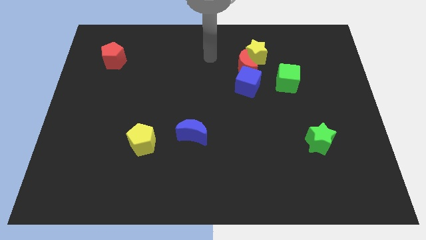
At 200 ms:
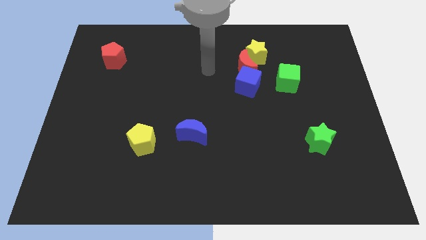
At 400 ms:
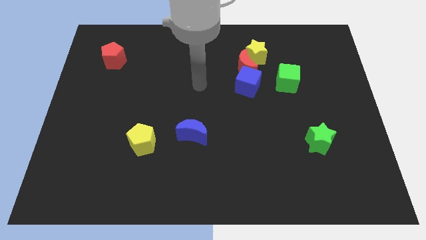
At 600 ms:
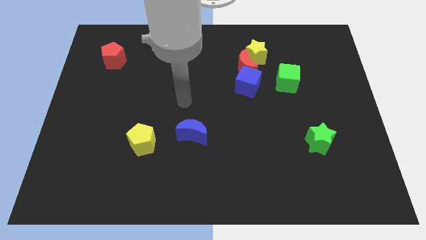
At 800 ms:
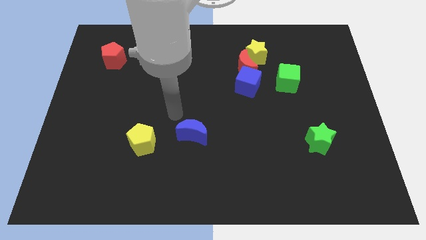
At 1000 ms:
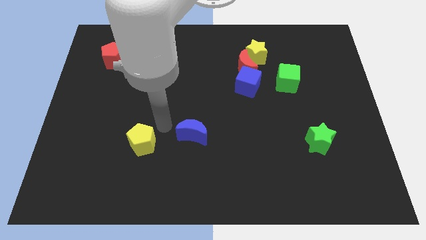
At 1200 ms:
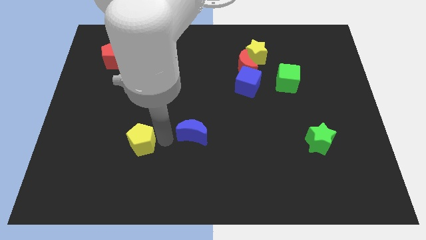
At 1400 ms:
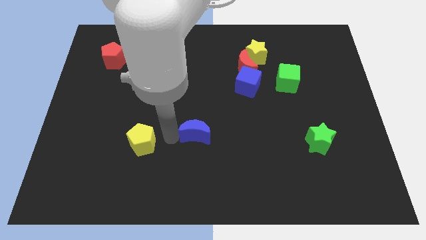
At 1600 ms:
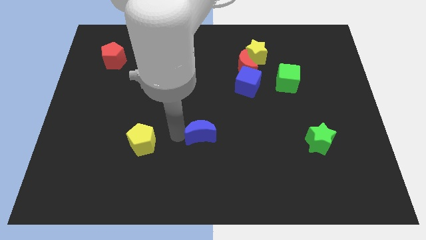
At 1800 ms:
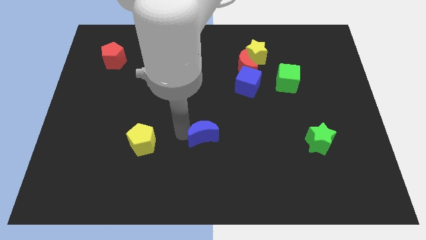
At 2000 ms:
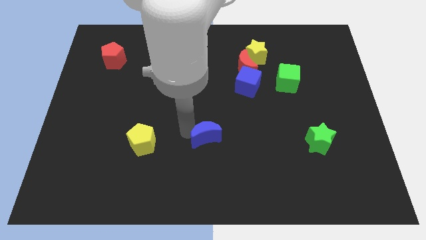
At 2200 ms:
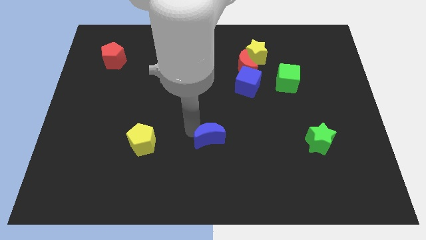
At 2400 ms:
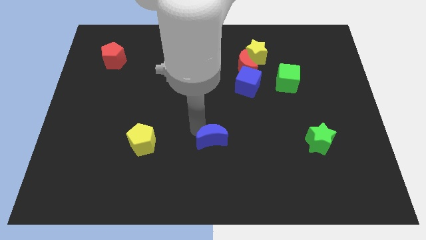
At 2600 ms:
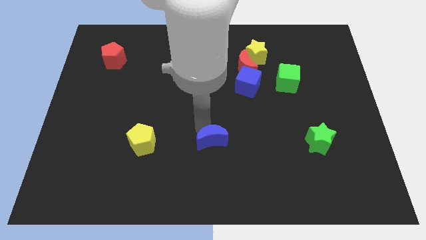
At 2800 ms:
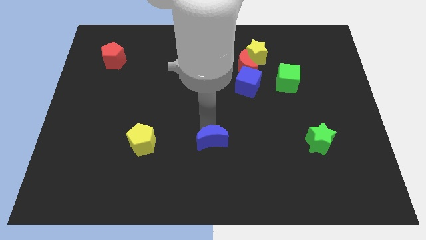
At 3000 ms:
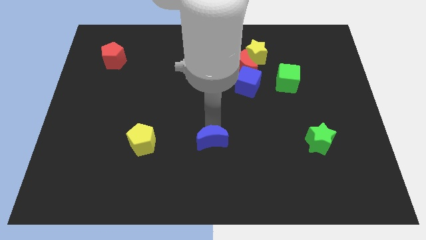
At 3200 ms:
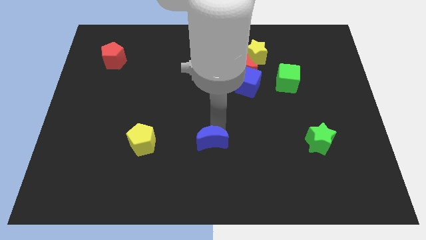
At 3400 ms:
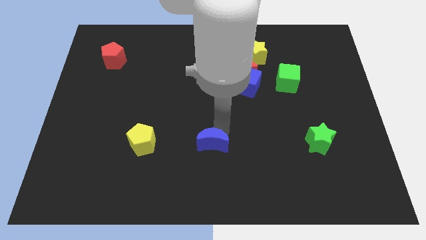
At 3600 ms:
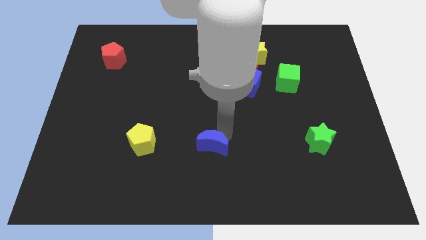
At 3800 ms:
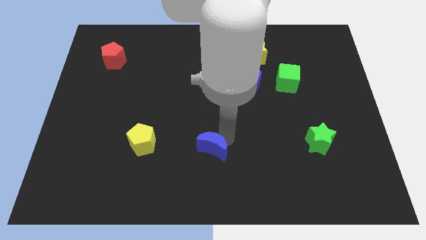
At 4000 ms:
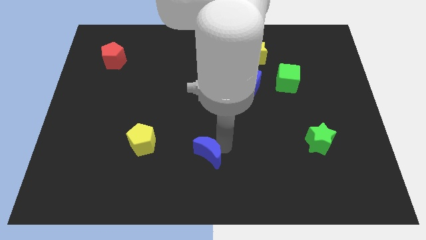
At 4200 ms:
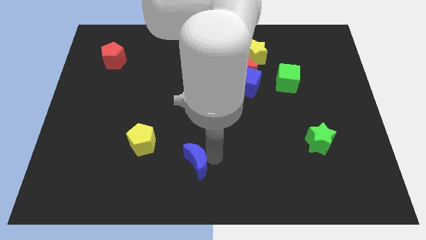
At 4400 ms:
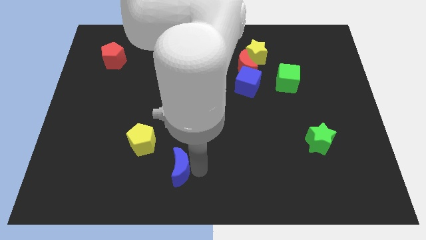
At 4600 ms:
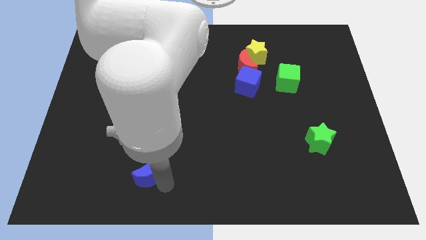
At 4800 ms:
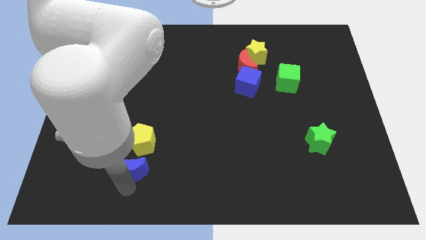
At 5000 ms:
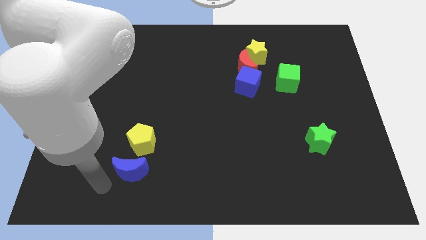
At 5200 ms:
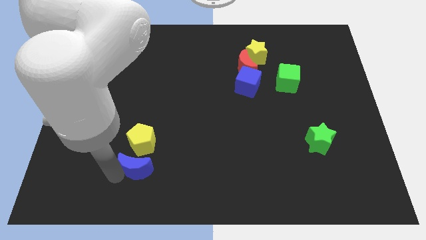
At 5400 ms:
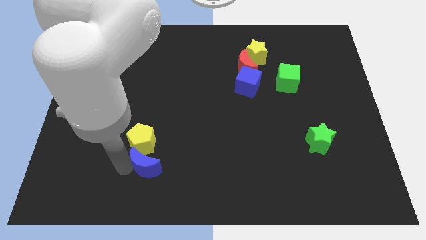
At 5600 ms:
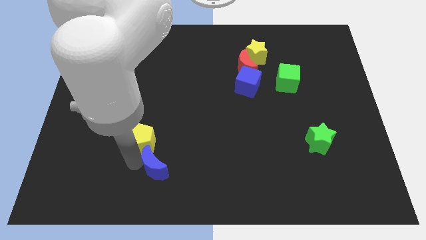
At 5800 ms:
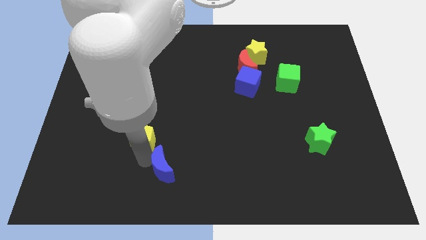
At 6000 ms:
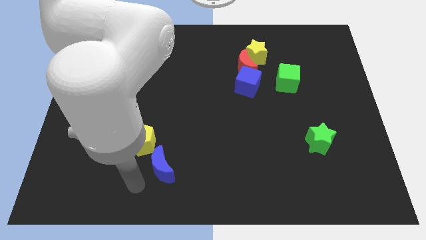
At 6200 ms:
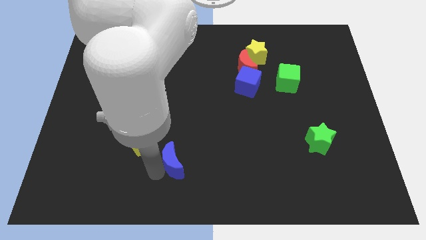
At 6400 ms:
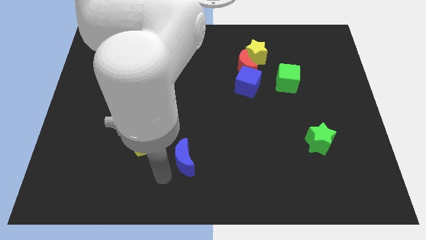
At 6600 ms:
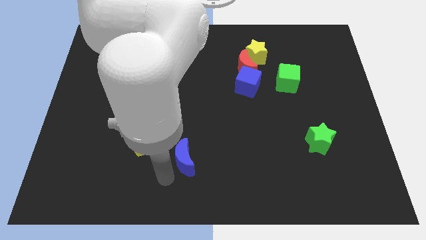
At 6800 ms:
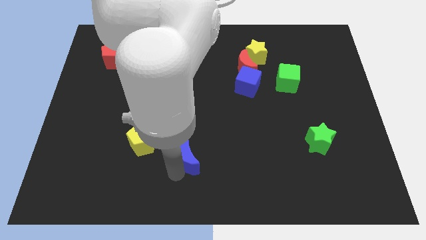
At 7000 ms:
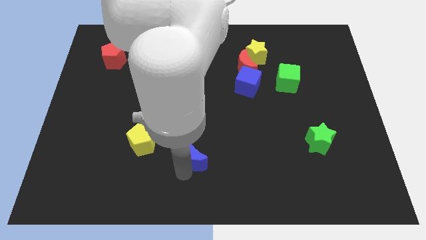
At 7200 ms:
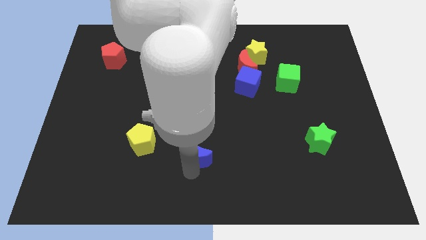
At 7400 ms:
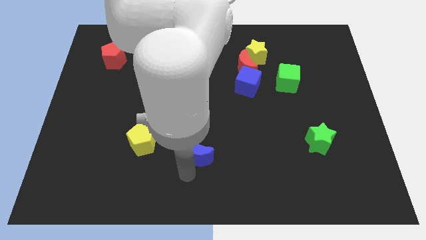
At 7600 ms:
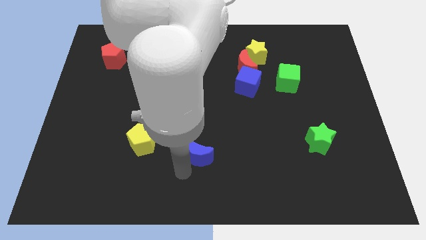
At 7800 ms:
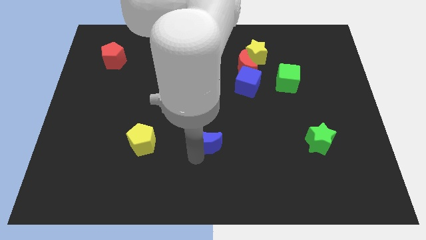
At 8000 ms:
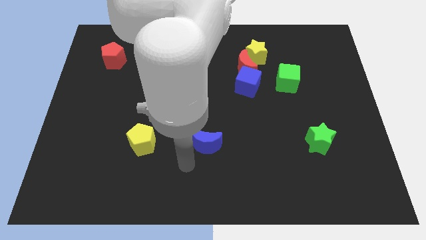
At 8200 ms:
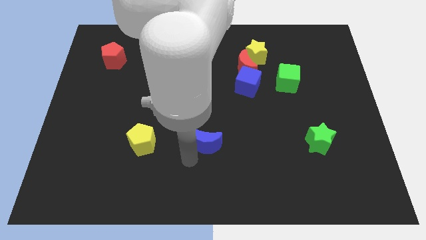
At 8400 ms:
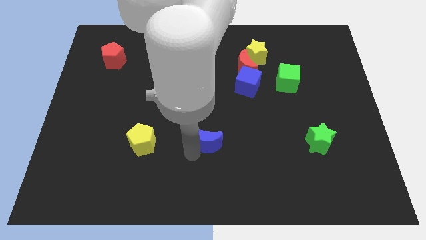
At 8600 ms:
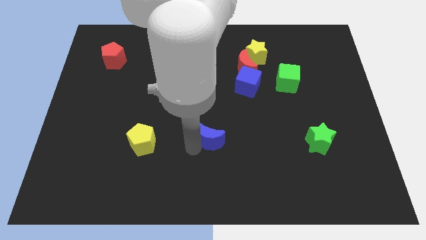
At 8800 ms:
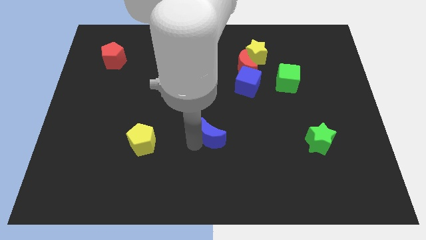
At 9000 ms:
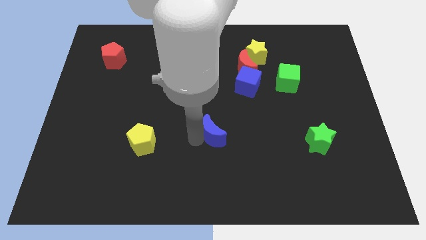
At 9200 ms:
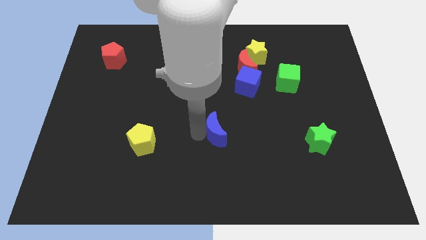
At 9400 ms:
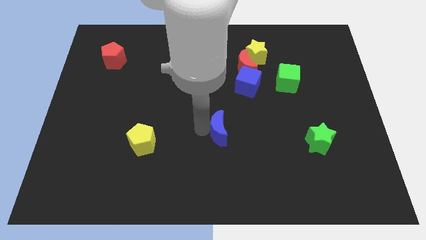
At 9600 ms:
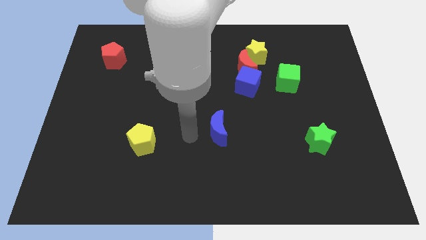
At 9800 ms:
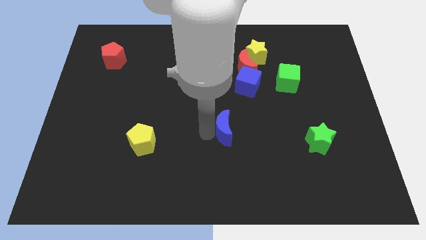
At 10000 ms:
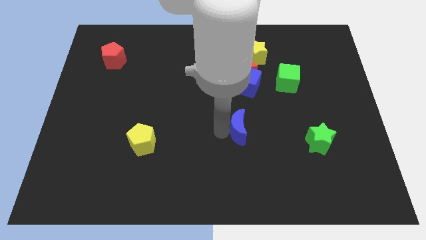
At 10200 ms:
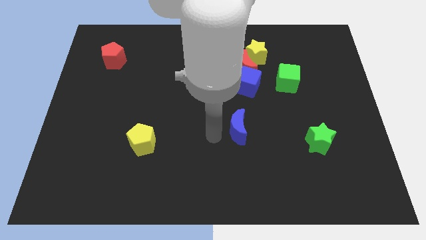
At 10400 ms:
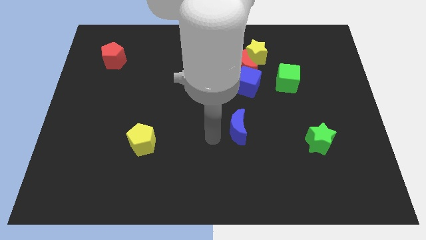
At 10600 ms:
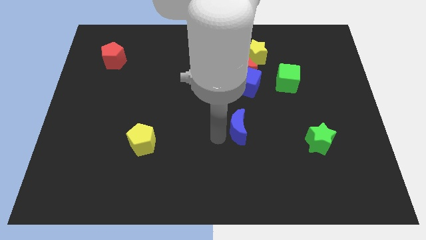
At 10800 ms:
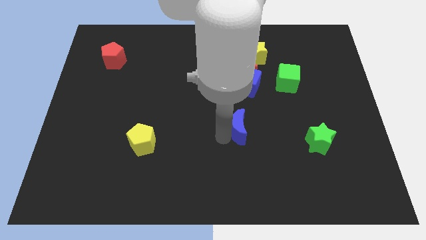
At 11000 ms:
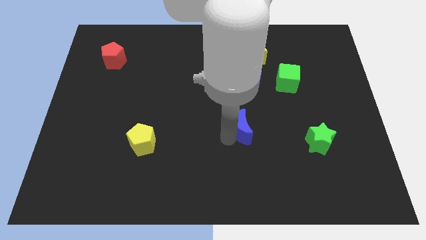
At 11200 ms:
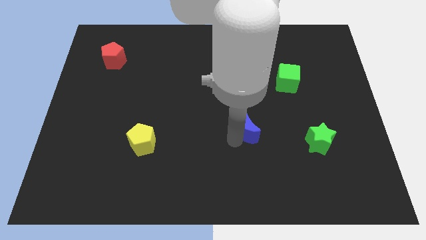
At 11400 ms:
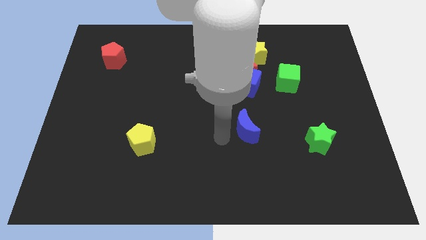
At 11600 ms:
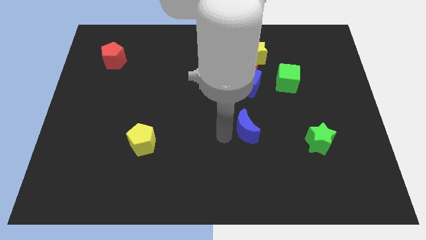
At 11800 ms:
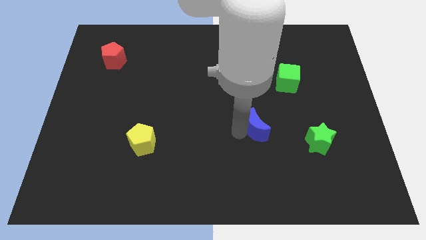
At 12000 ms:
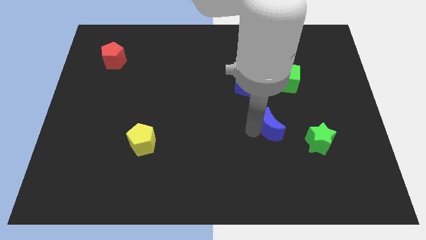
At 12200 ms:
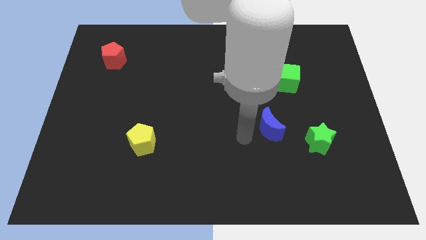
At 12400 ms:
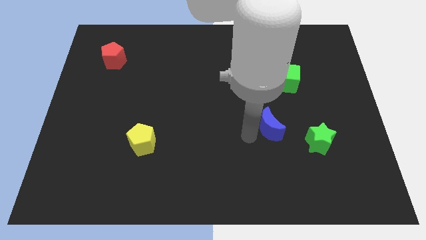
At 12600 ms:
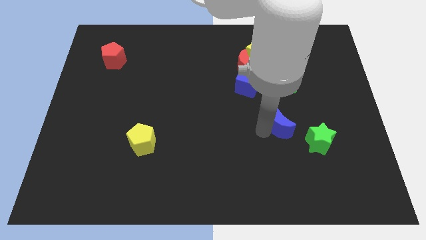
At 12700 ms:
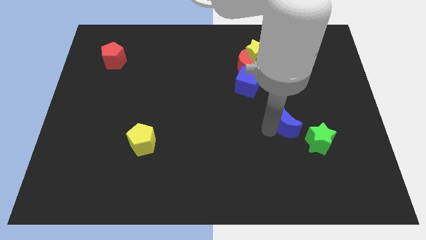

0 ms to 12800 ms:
slide the blue moon right

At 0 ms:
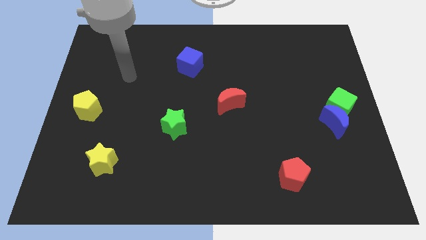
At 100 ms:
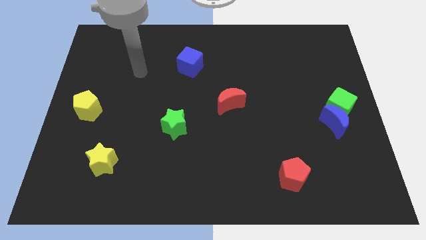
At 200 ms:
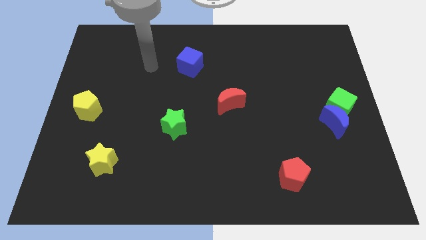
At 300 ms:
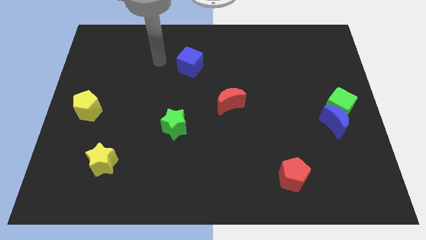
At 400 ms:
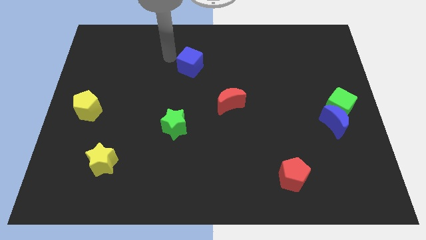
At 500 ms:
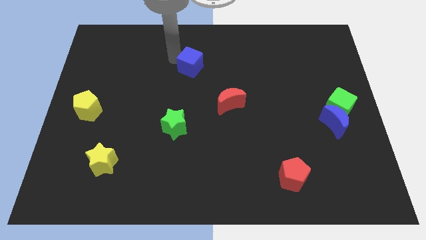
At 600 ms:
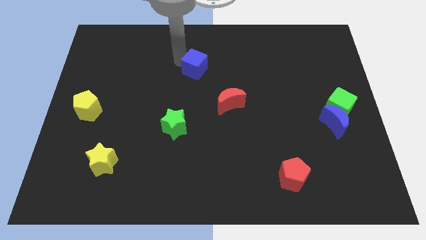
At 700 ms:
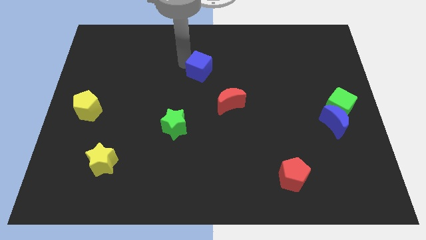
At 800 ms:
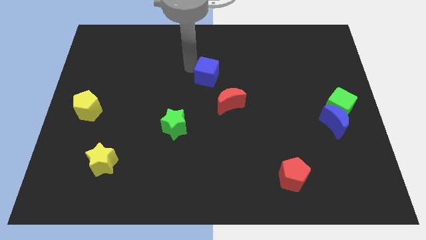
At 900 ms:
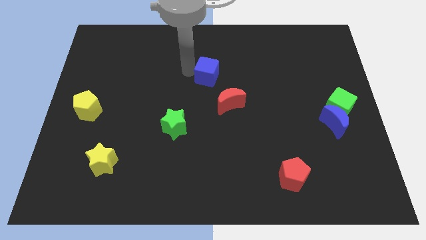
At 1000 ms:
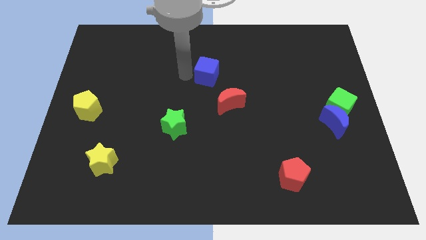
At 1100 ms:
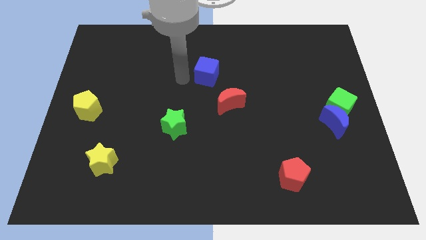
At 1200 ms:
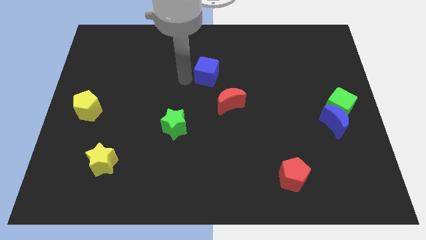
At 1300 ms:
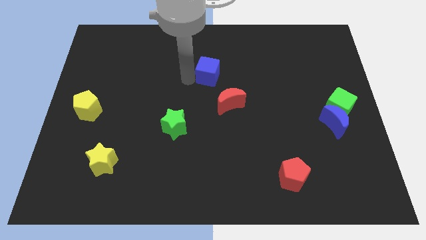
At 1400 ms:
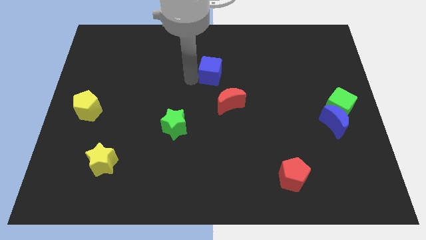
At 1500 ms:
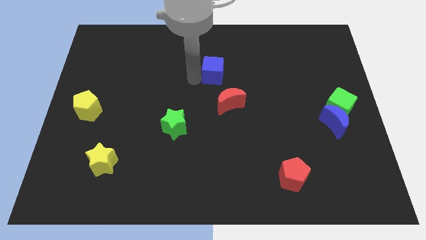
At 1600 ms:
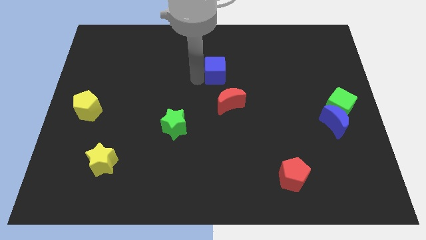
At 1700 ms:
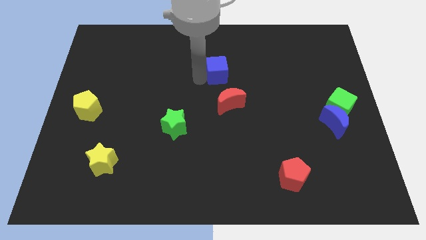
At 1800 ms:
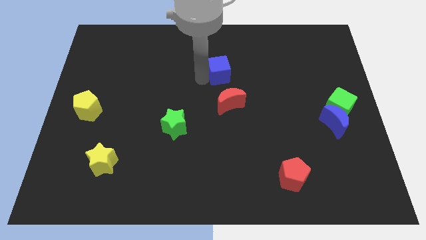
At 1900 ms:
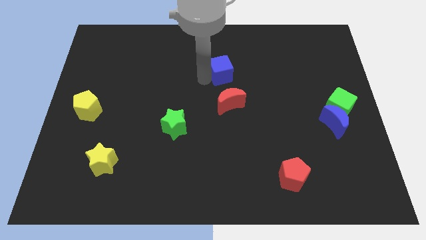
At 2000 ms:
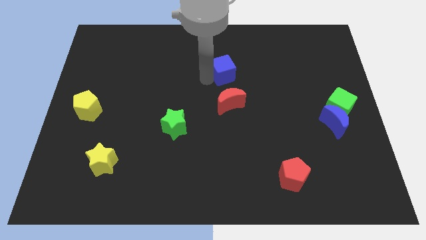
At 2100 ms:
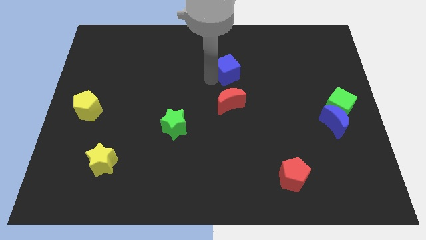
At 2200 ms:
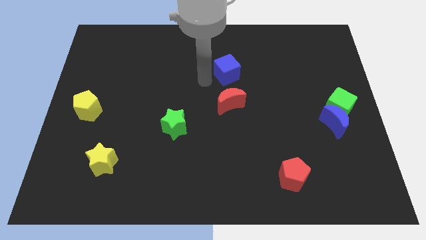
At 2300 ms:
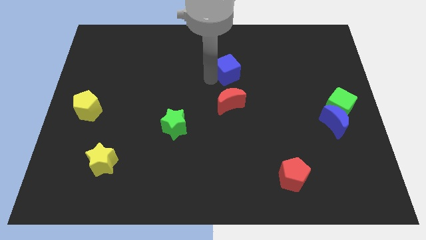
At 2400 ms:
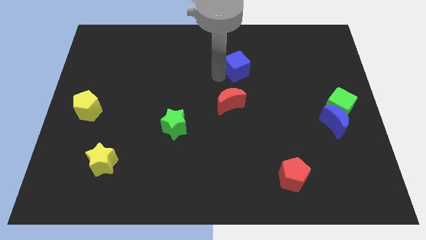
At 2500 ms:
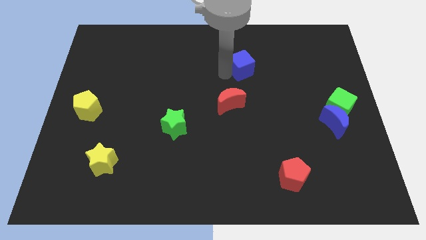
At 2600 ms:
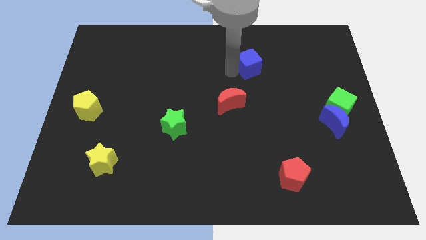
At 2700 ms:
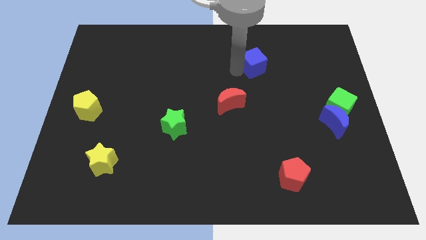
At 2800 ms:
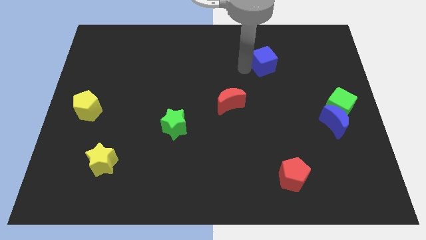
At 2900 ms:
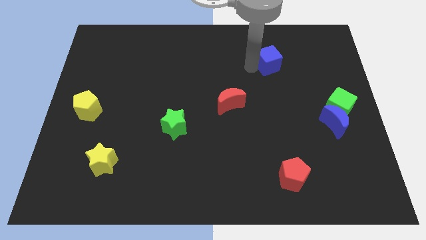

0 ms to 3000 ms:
push the blue cube to the right
